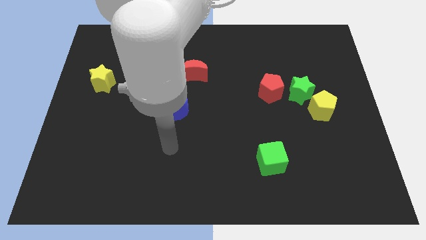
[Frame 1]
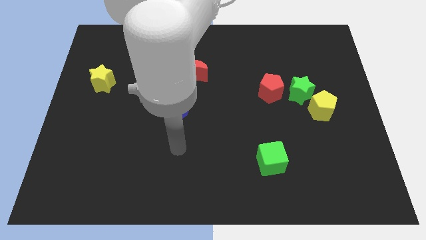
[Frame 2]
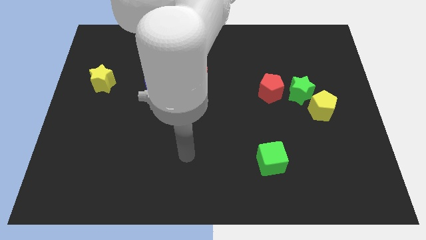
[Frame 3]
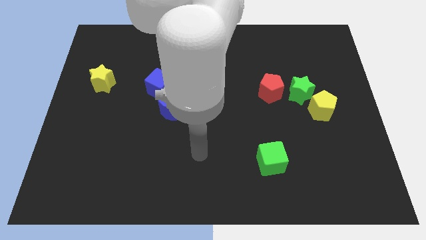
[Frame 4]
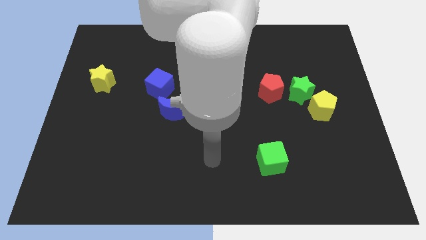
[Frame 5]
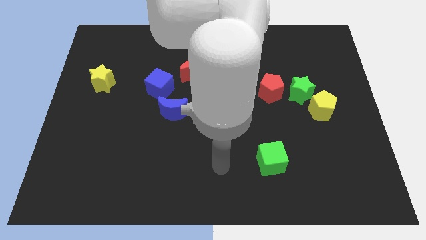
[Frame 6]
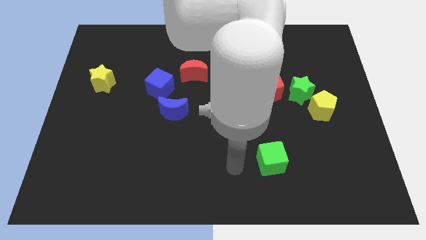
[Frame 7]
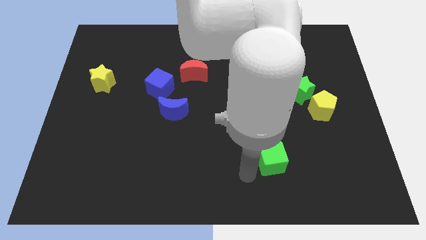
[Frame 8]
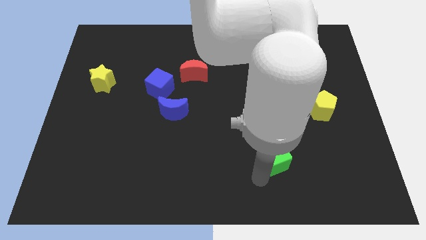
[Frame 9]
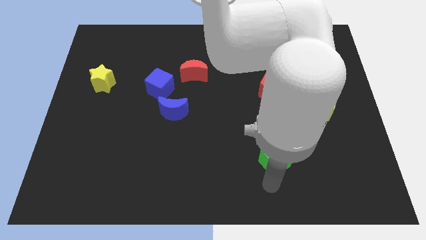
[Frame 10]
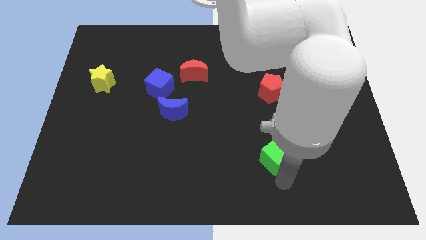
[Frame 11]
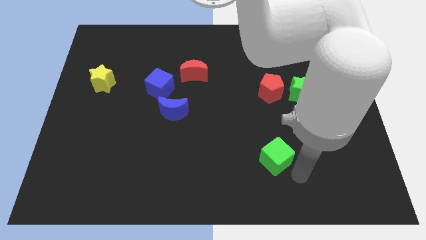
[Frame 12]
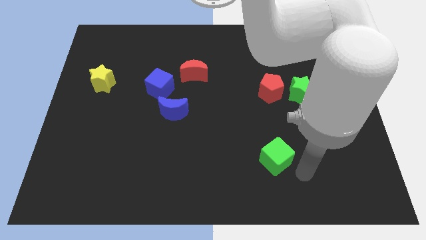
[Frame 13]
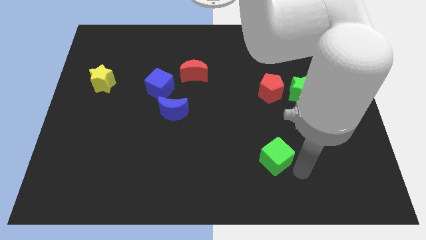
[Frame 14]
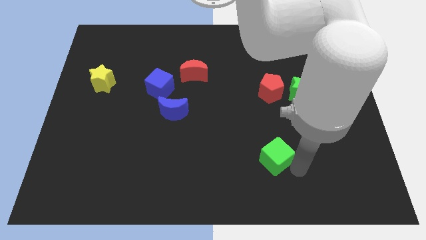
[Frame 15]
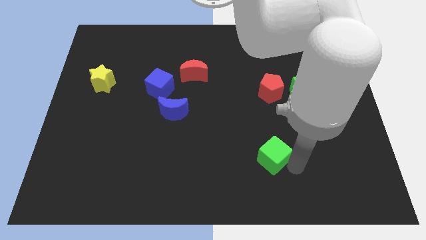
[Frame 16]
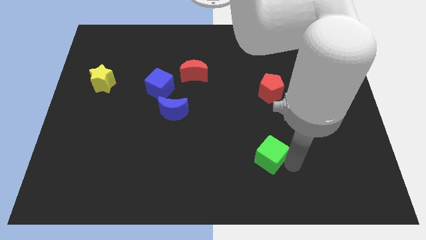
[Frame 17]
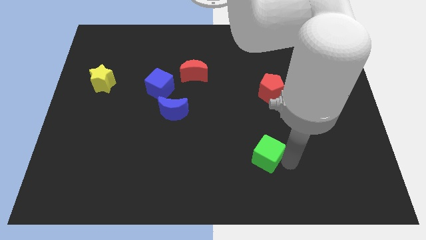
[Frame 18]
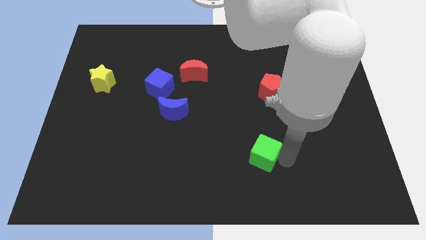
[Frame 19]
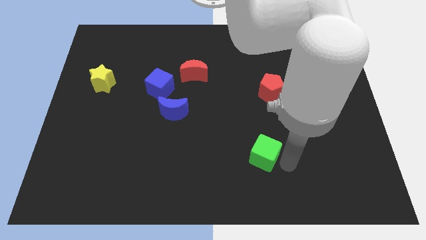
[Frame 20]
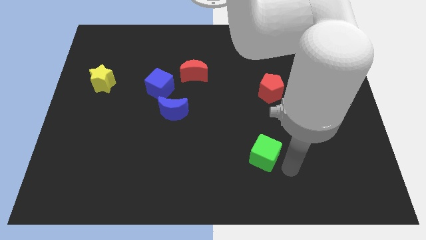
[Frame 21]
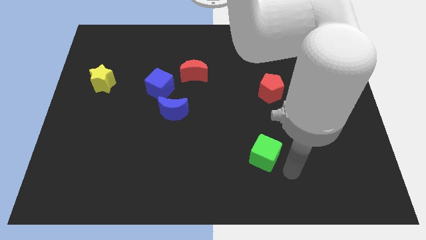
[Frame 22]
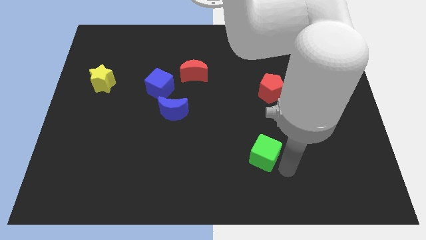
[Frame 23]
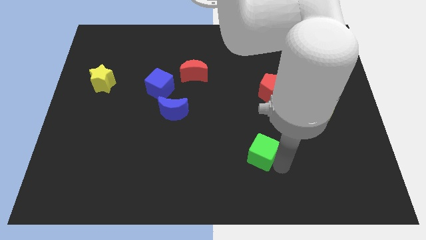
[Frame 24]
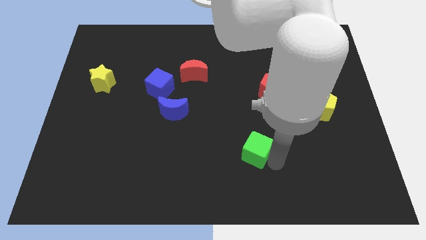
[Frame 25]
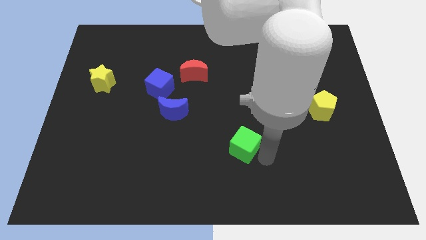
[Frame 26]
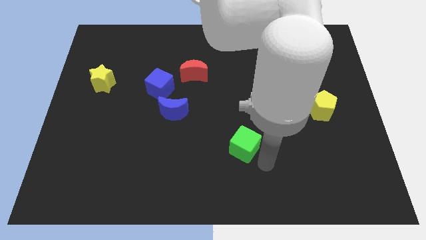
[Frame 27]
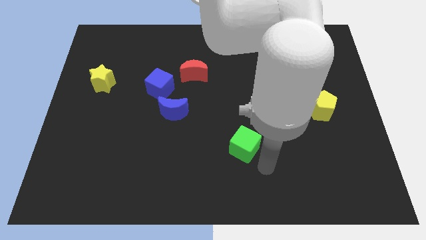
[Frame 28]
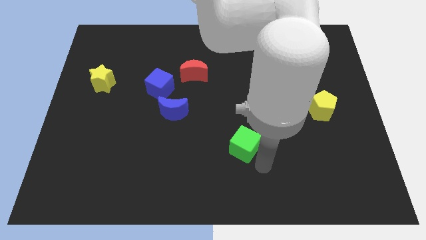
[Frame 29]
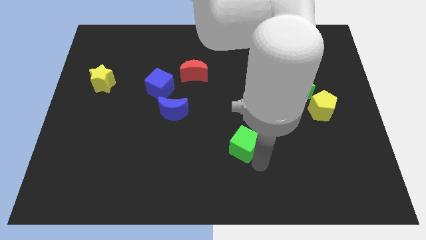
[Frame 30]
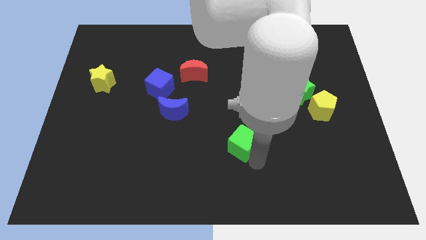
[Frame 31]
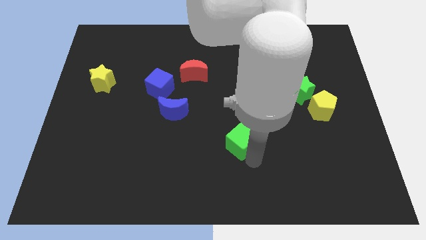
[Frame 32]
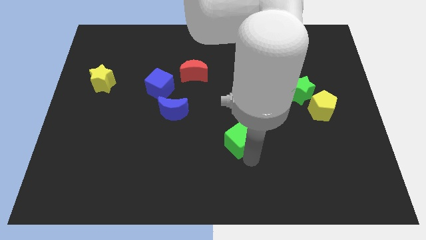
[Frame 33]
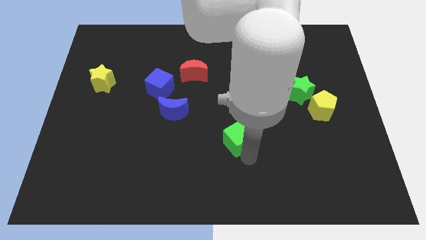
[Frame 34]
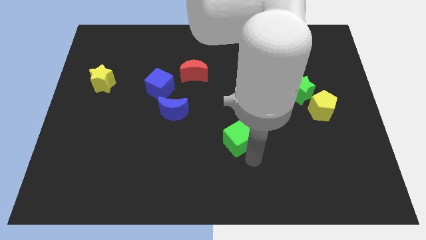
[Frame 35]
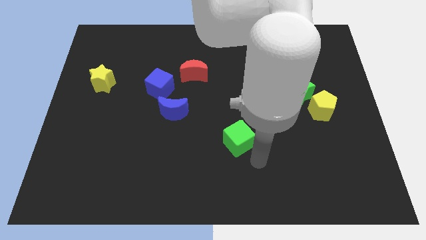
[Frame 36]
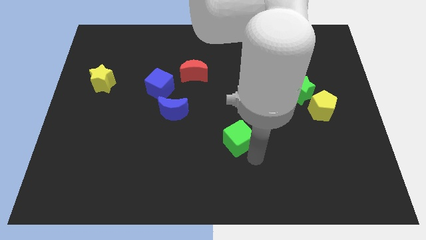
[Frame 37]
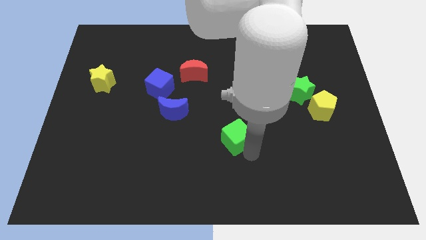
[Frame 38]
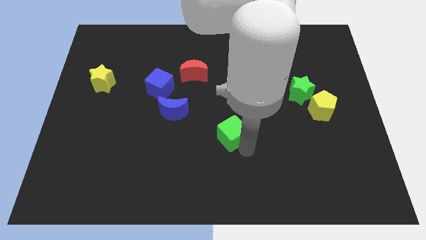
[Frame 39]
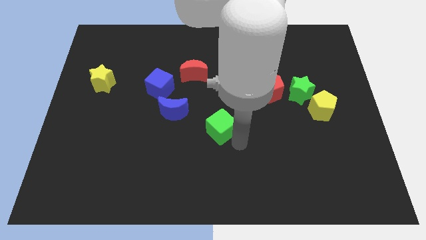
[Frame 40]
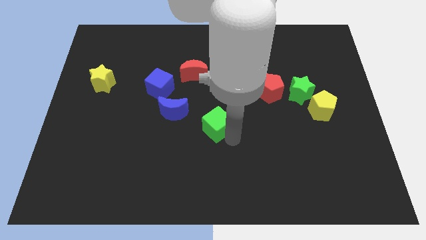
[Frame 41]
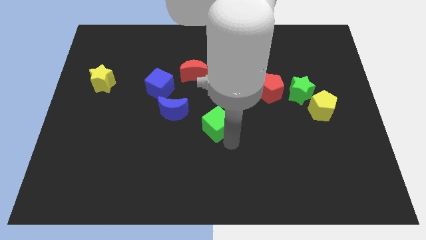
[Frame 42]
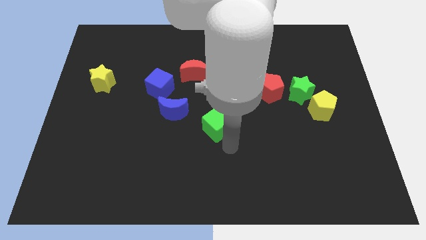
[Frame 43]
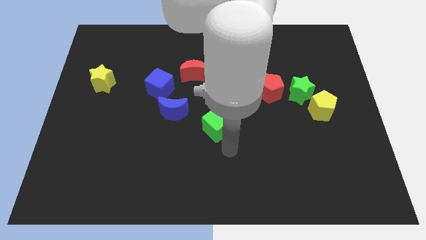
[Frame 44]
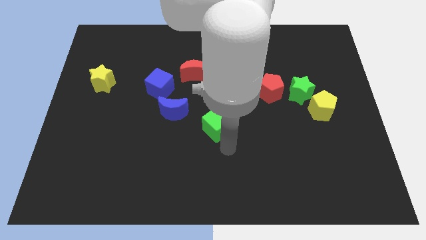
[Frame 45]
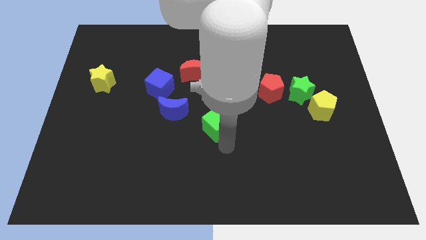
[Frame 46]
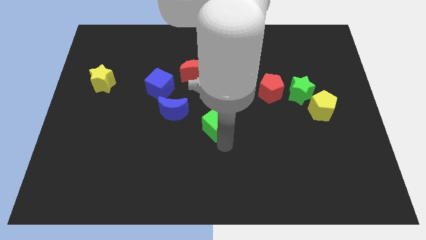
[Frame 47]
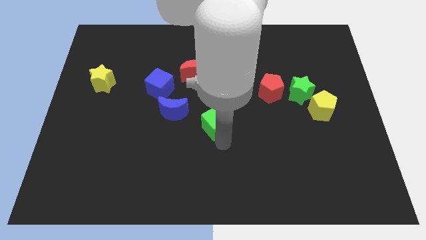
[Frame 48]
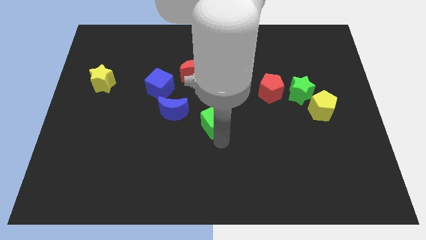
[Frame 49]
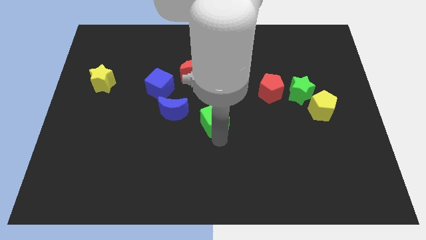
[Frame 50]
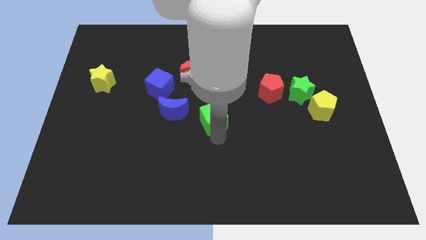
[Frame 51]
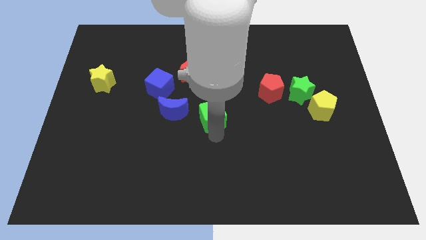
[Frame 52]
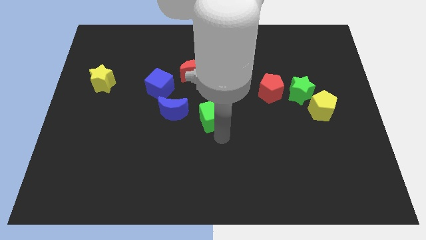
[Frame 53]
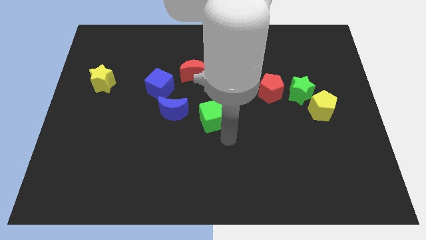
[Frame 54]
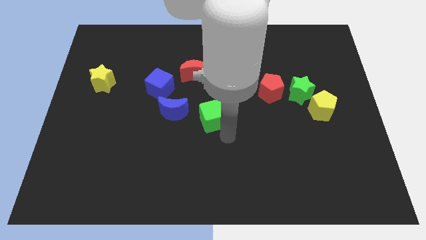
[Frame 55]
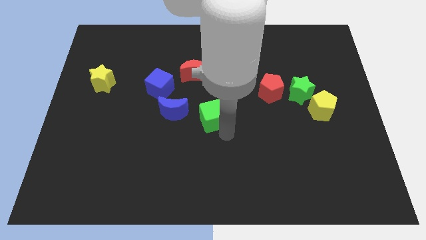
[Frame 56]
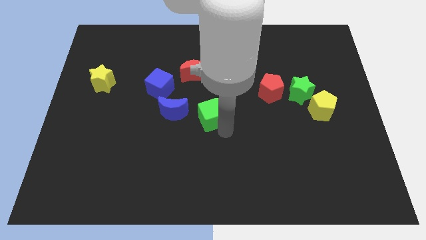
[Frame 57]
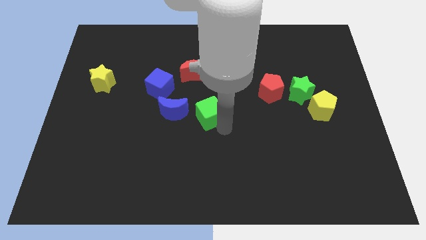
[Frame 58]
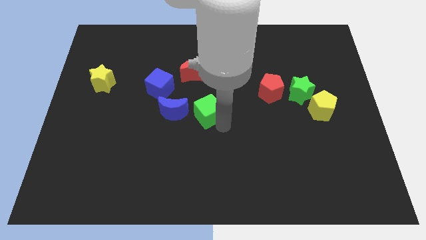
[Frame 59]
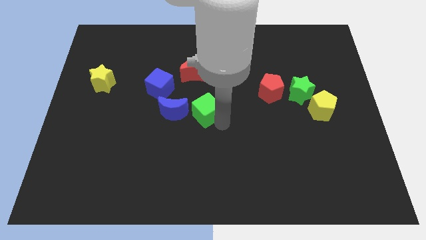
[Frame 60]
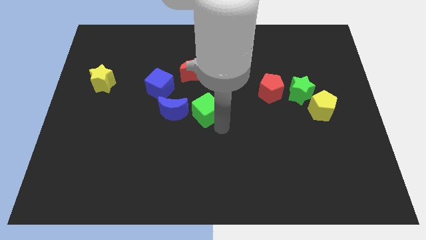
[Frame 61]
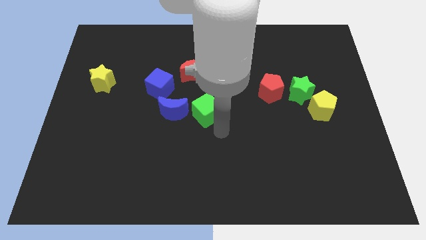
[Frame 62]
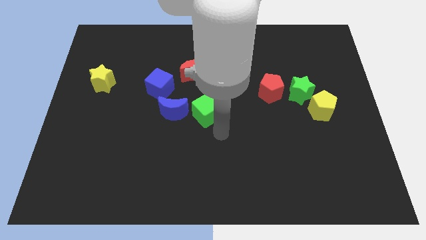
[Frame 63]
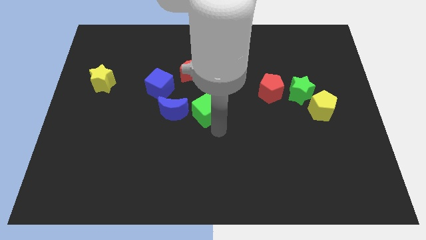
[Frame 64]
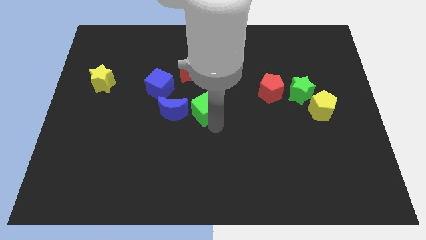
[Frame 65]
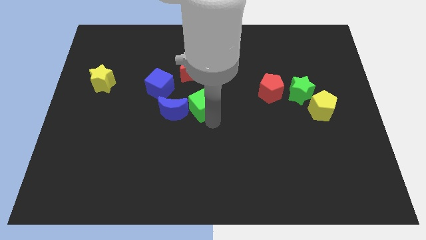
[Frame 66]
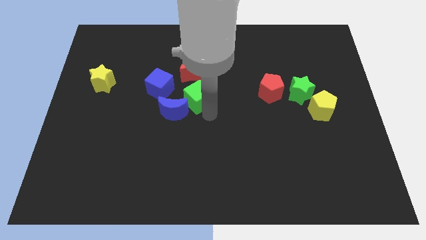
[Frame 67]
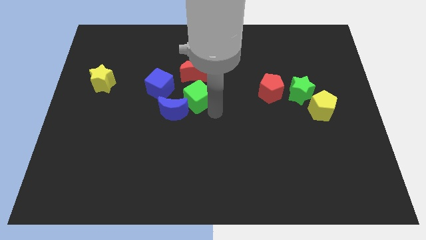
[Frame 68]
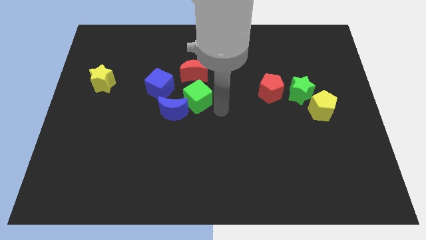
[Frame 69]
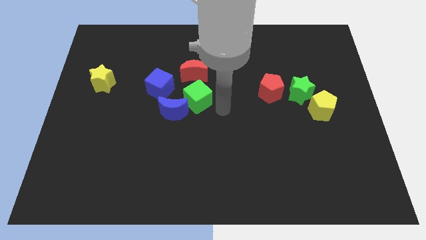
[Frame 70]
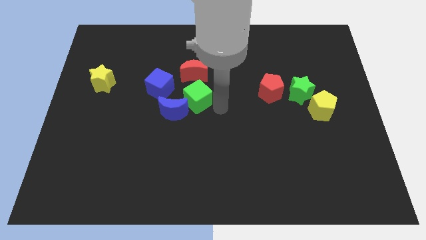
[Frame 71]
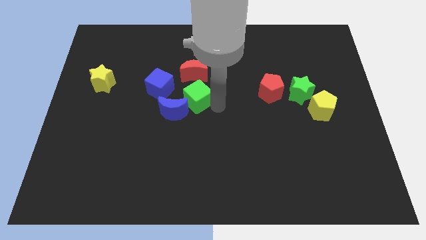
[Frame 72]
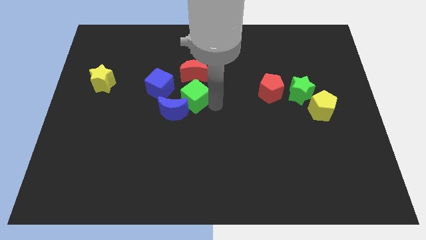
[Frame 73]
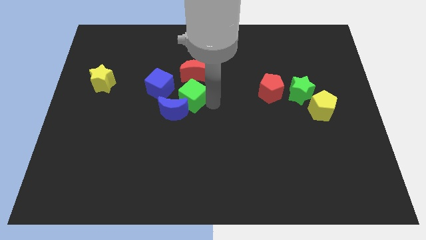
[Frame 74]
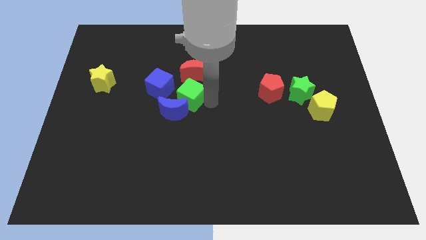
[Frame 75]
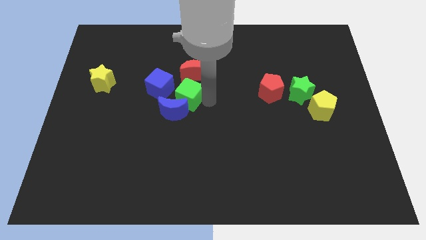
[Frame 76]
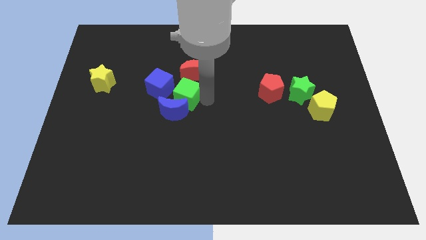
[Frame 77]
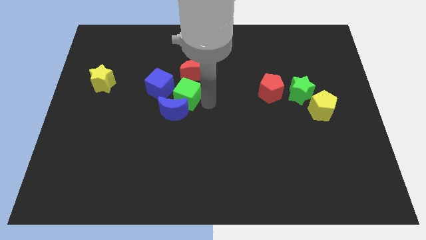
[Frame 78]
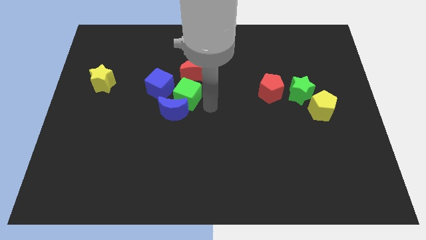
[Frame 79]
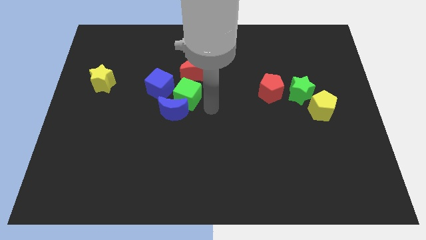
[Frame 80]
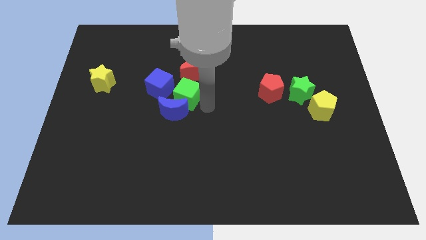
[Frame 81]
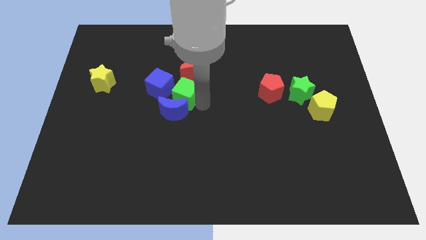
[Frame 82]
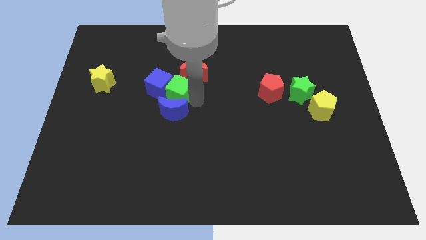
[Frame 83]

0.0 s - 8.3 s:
put the green cube towards the blue cube
